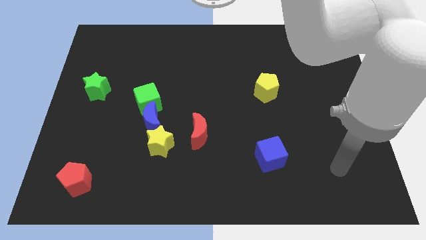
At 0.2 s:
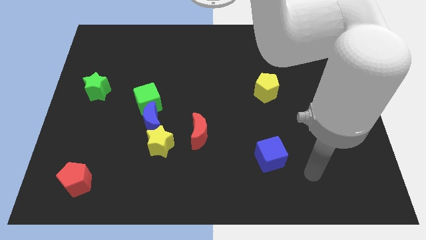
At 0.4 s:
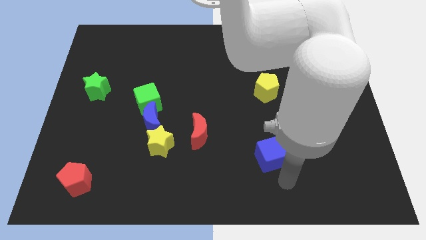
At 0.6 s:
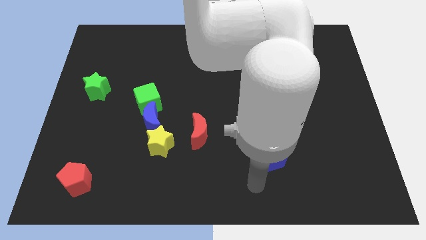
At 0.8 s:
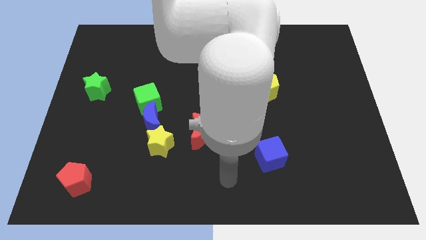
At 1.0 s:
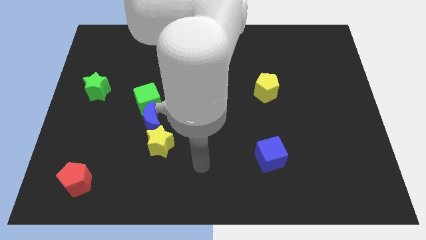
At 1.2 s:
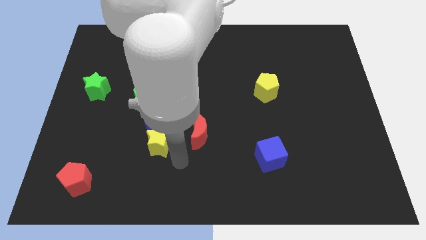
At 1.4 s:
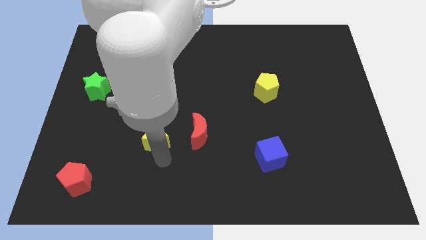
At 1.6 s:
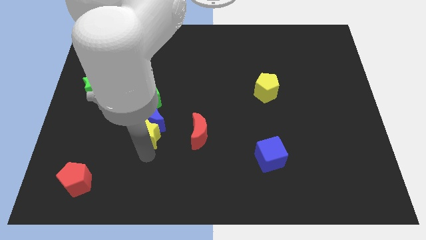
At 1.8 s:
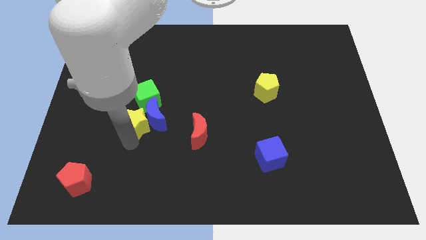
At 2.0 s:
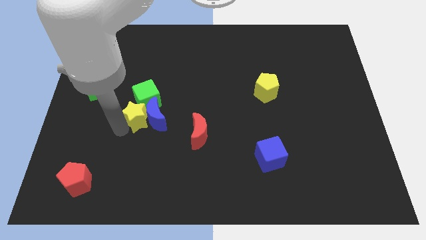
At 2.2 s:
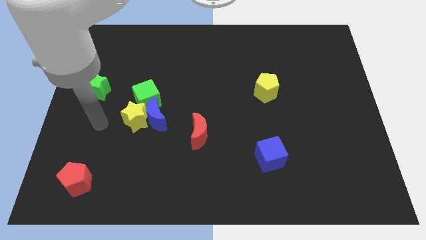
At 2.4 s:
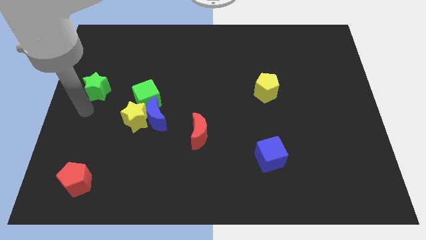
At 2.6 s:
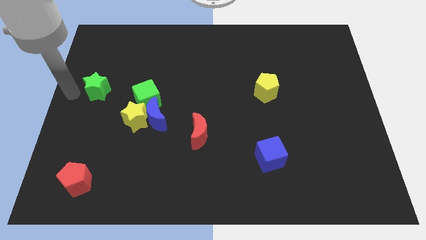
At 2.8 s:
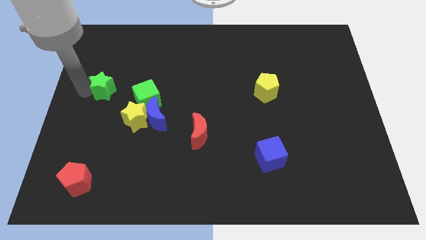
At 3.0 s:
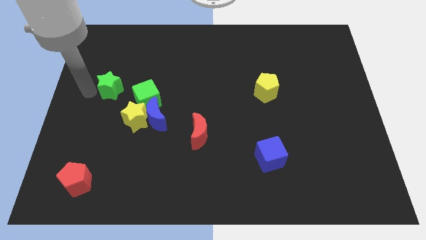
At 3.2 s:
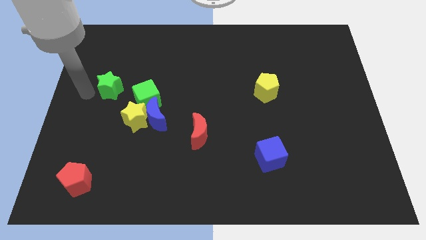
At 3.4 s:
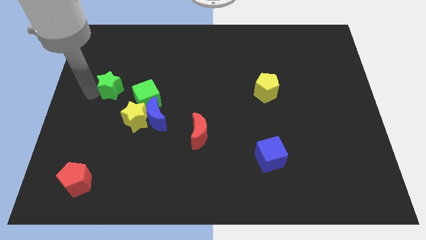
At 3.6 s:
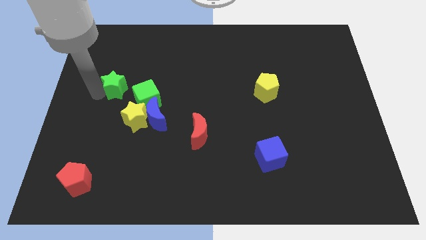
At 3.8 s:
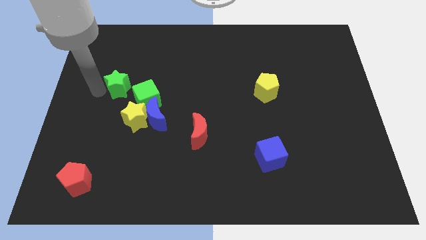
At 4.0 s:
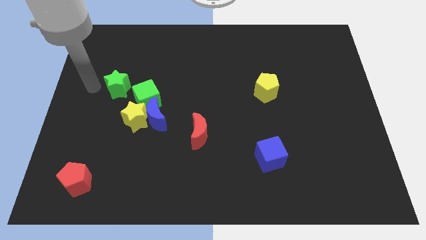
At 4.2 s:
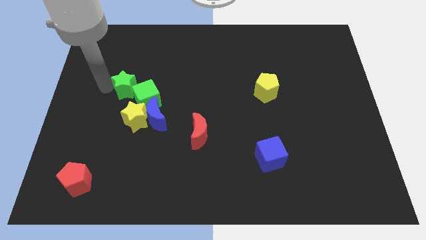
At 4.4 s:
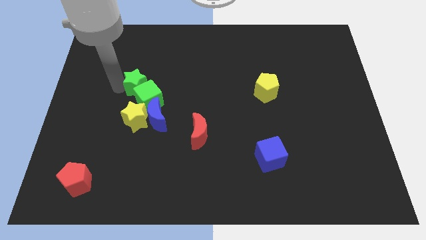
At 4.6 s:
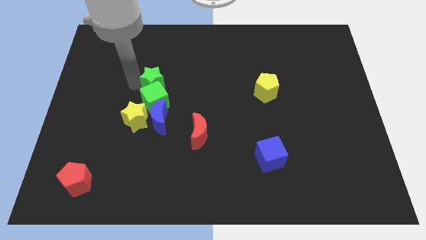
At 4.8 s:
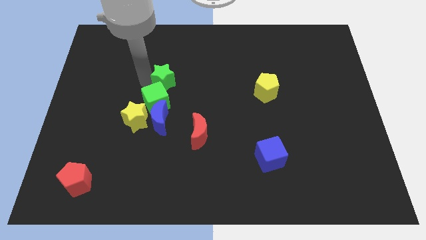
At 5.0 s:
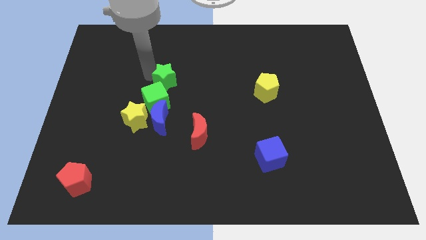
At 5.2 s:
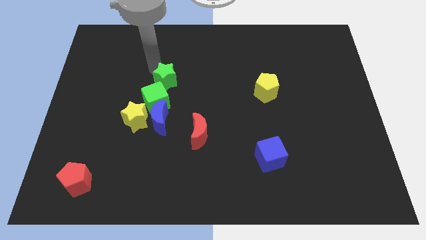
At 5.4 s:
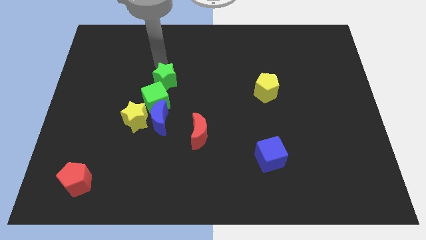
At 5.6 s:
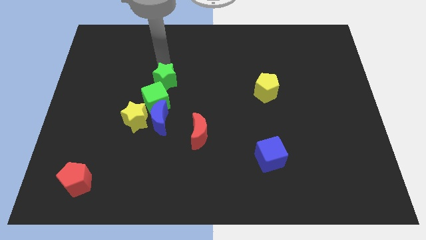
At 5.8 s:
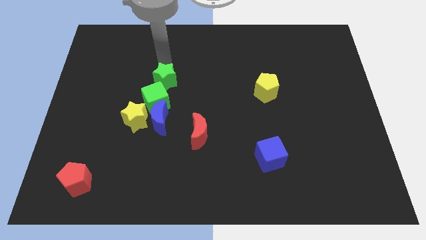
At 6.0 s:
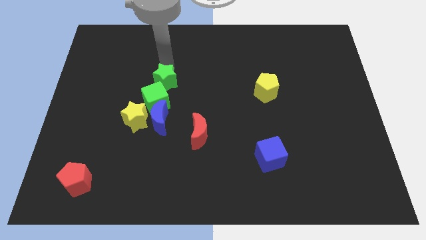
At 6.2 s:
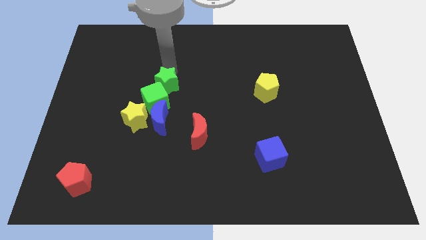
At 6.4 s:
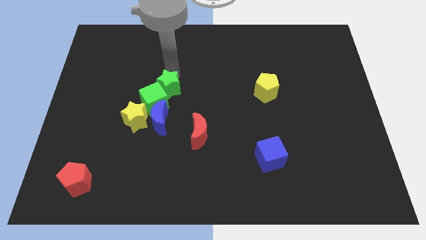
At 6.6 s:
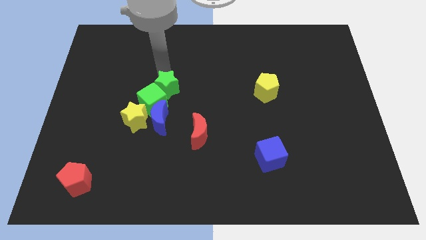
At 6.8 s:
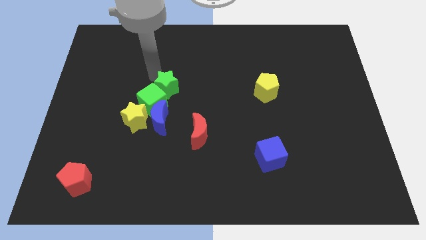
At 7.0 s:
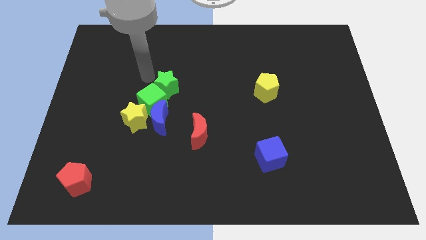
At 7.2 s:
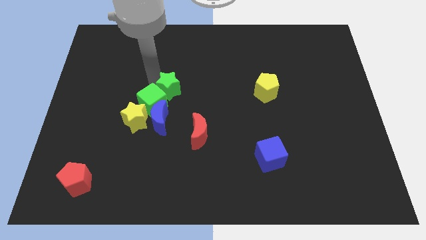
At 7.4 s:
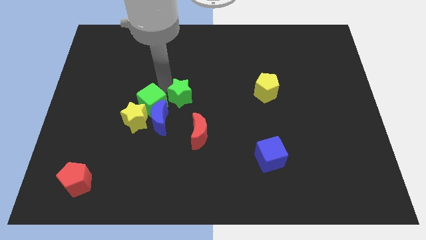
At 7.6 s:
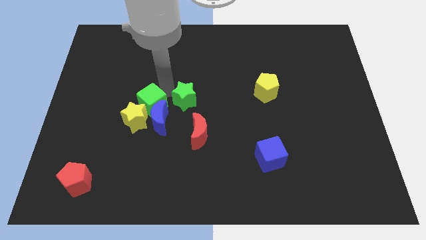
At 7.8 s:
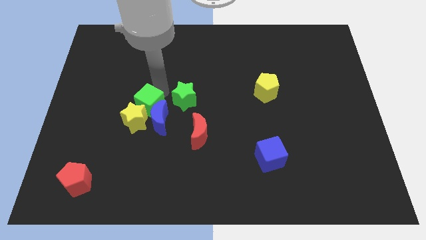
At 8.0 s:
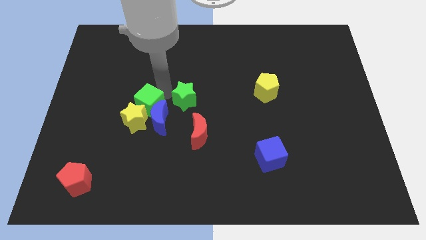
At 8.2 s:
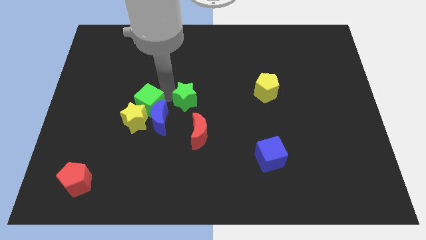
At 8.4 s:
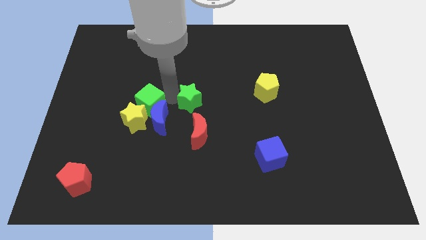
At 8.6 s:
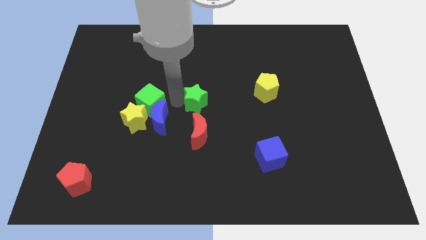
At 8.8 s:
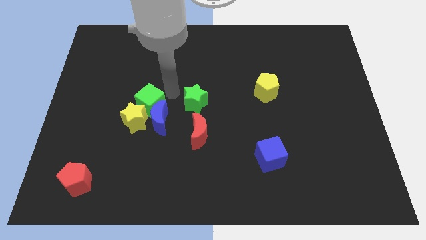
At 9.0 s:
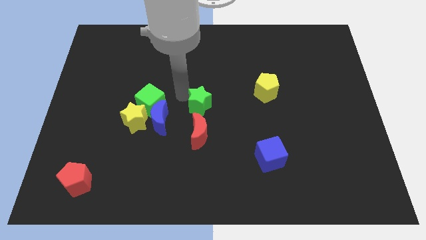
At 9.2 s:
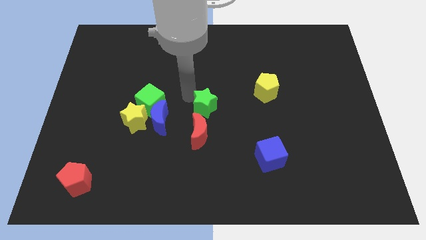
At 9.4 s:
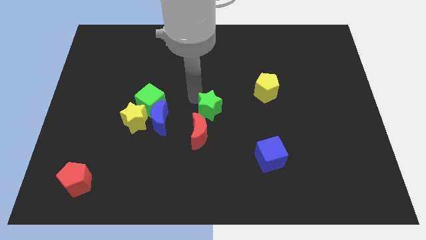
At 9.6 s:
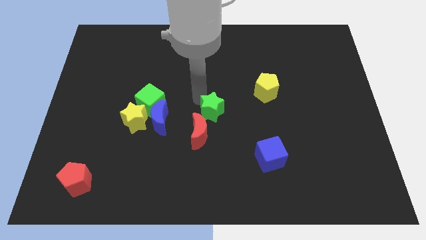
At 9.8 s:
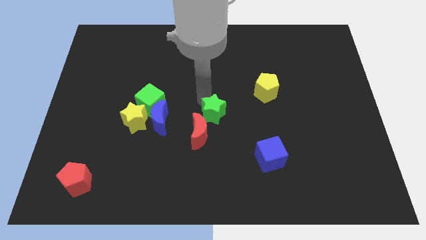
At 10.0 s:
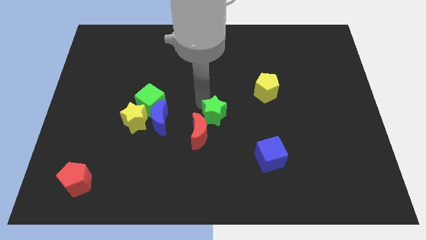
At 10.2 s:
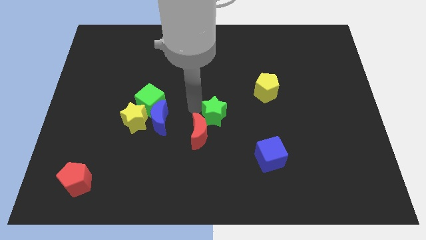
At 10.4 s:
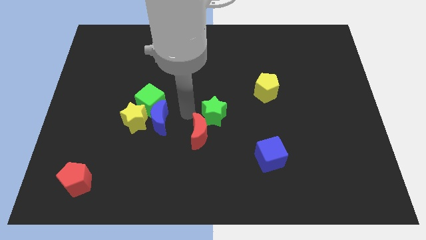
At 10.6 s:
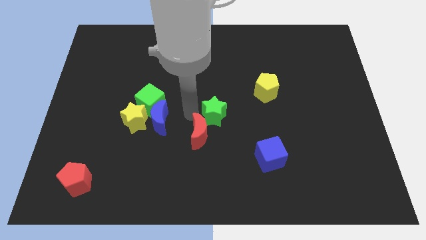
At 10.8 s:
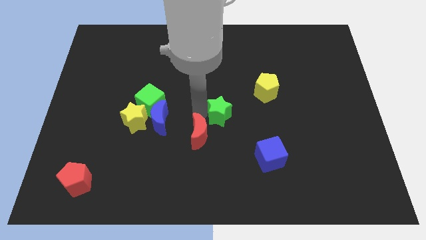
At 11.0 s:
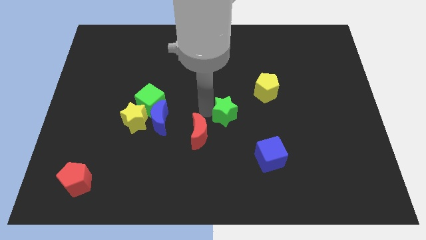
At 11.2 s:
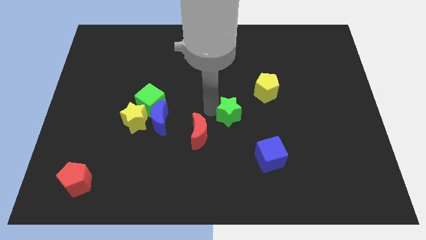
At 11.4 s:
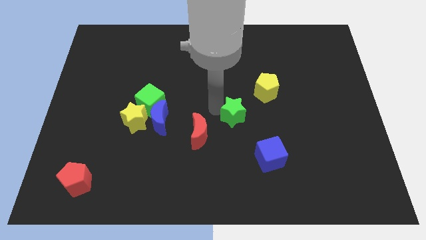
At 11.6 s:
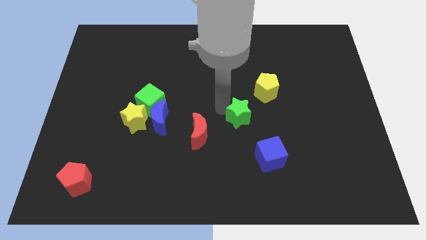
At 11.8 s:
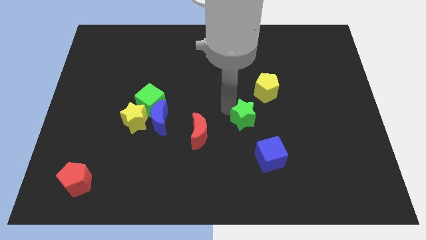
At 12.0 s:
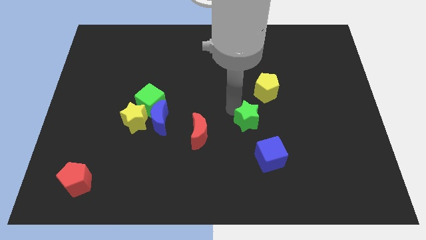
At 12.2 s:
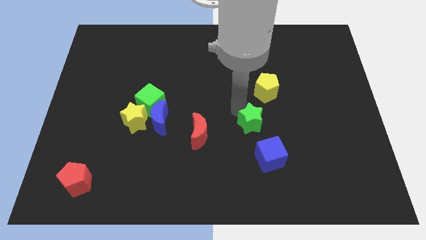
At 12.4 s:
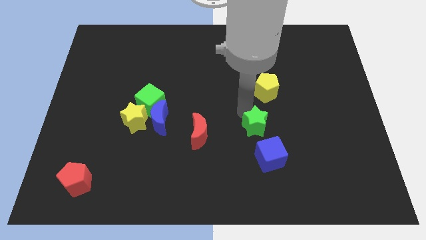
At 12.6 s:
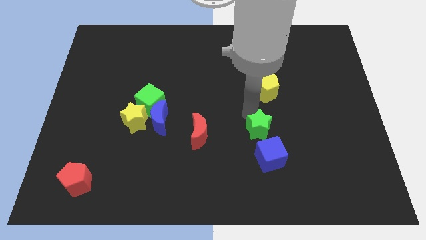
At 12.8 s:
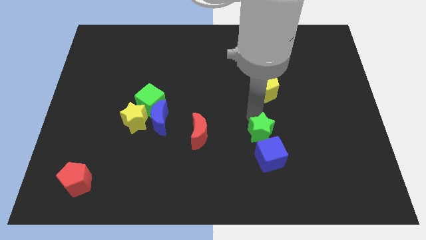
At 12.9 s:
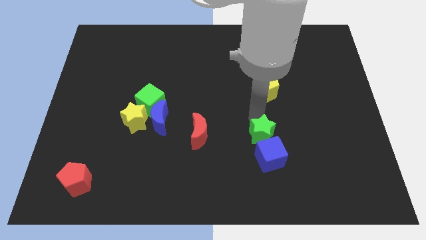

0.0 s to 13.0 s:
slide the green star close to the blue cube

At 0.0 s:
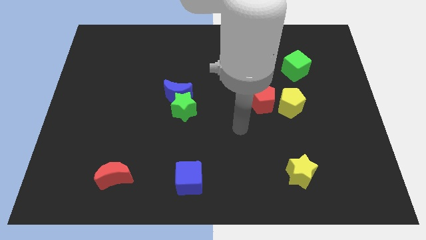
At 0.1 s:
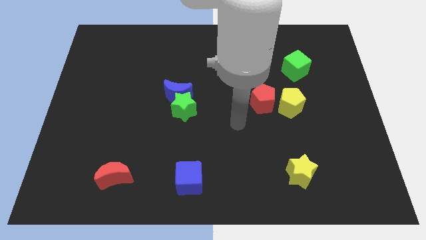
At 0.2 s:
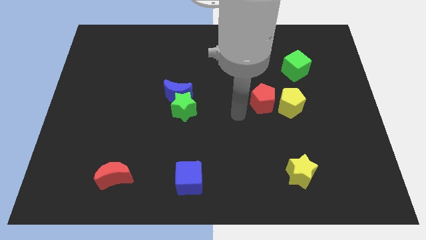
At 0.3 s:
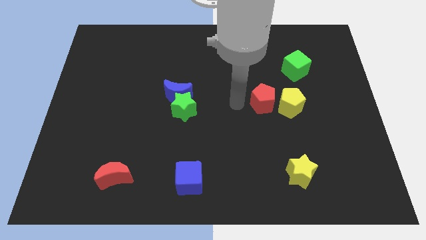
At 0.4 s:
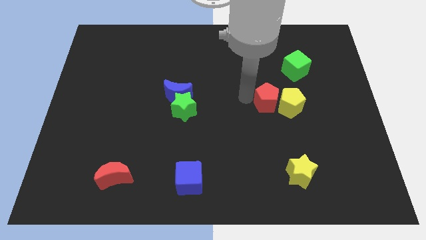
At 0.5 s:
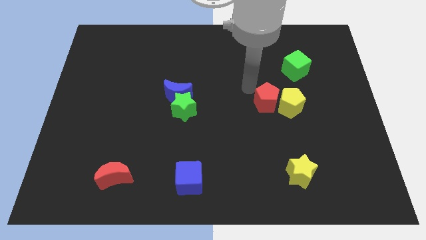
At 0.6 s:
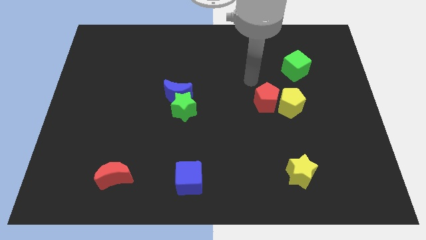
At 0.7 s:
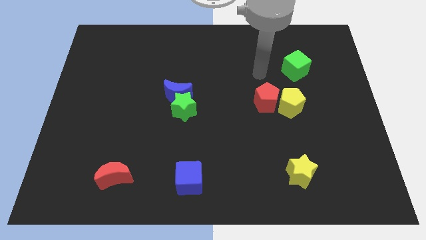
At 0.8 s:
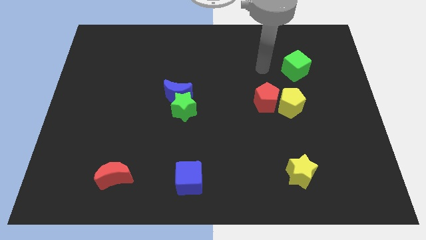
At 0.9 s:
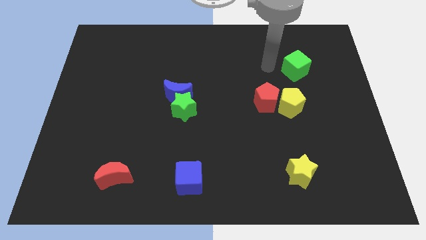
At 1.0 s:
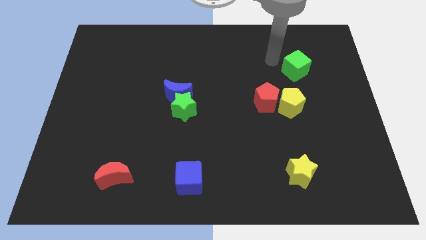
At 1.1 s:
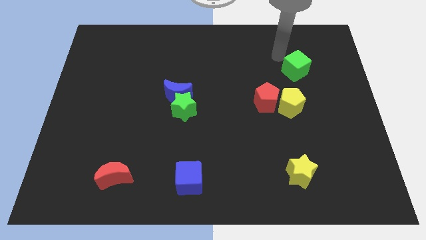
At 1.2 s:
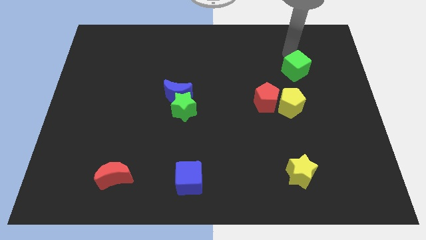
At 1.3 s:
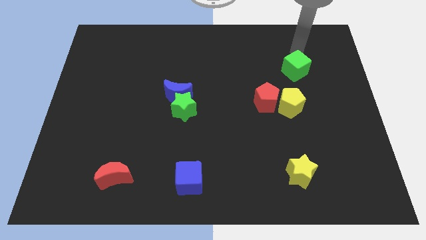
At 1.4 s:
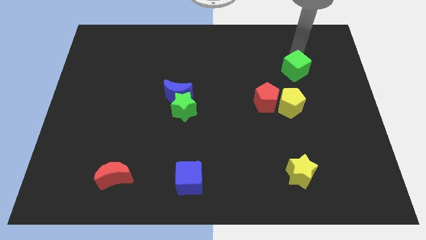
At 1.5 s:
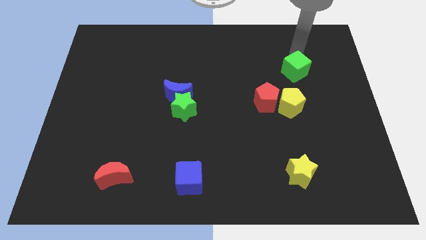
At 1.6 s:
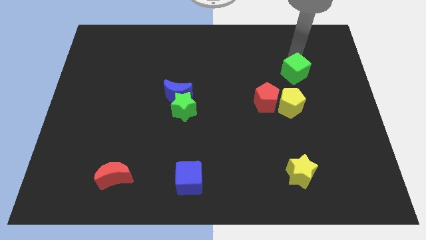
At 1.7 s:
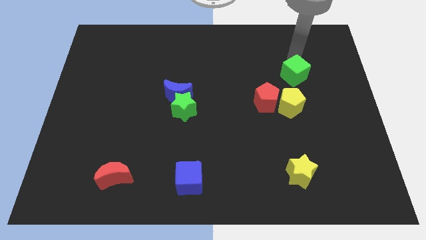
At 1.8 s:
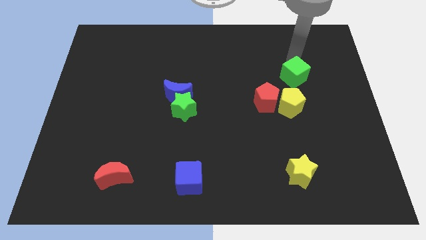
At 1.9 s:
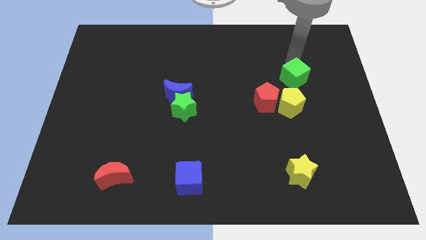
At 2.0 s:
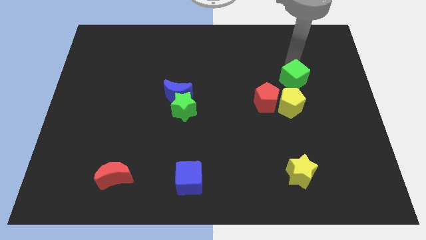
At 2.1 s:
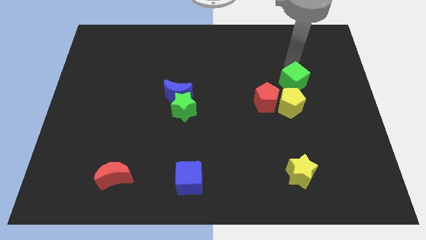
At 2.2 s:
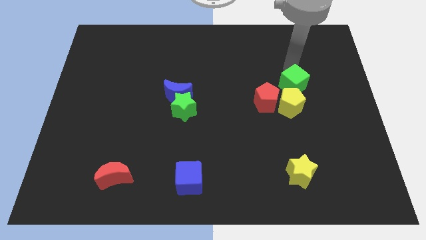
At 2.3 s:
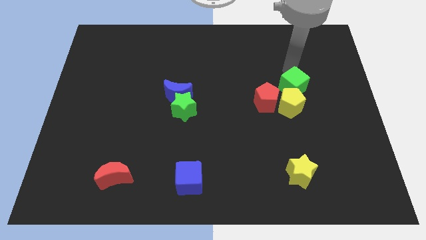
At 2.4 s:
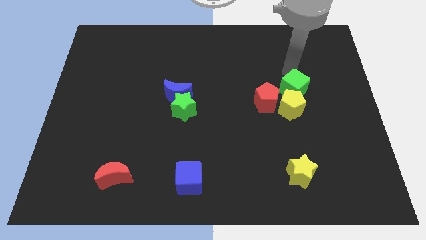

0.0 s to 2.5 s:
move the green cube to the yellow pentagon
